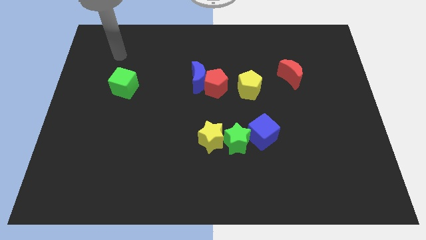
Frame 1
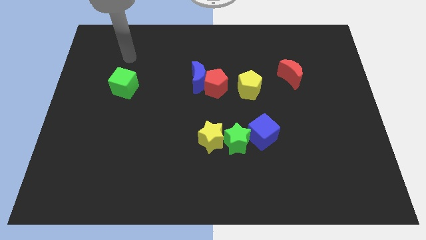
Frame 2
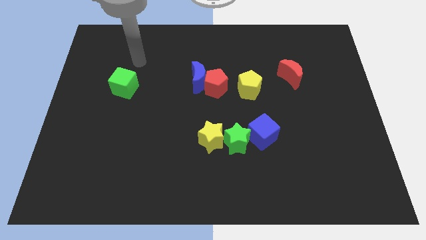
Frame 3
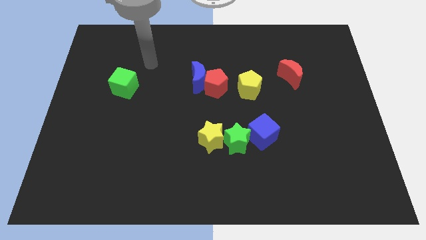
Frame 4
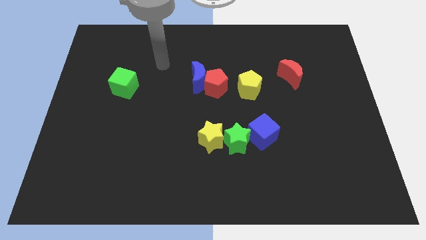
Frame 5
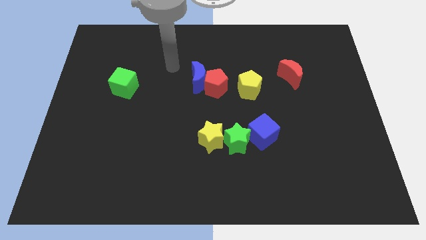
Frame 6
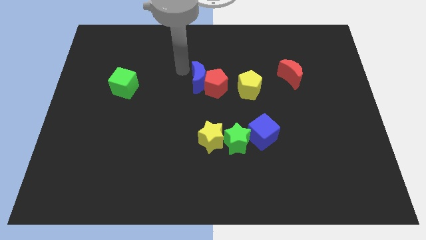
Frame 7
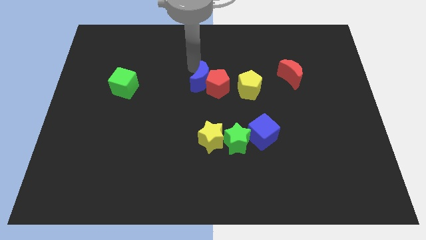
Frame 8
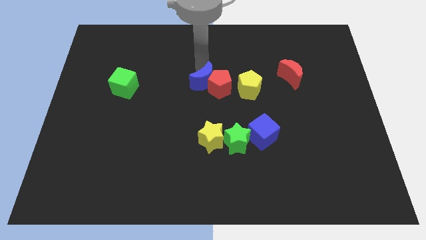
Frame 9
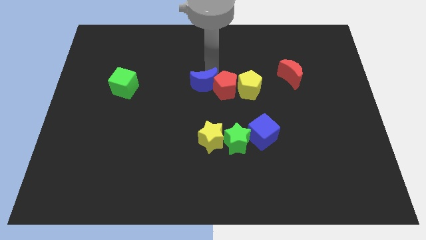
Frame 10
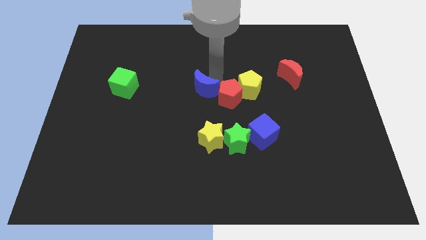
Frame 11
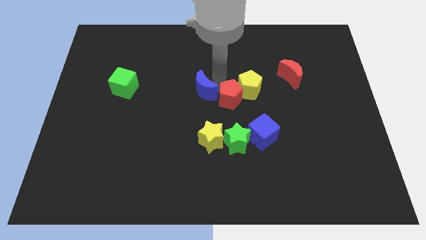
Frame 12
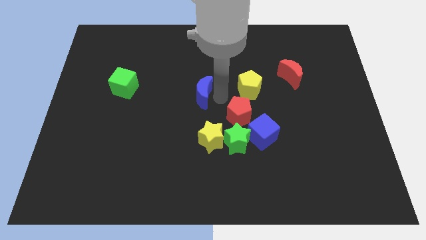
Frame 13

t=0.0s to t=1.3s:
pull the blue moon apart from the red pentagon

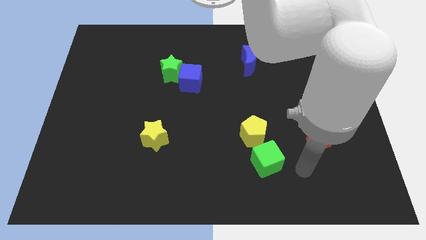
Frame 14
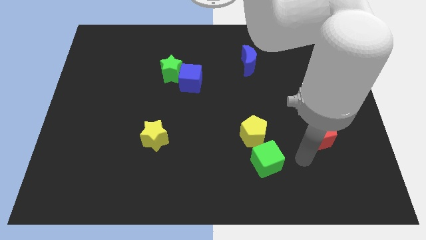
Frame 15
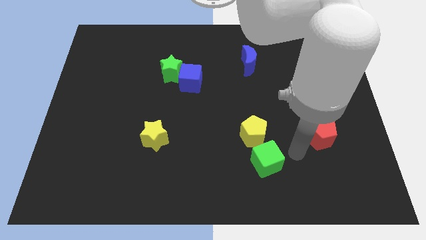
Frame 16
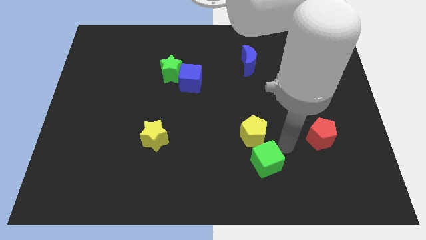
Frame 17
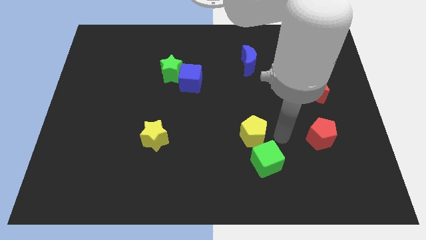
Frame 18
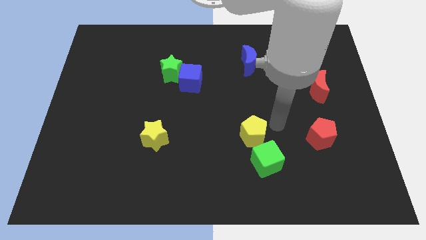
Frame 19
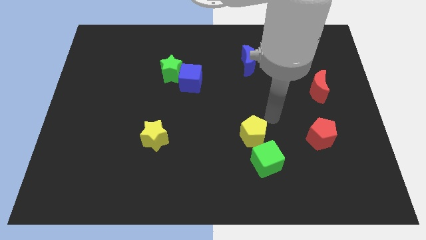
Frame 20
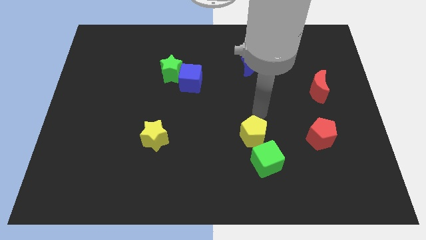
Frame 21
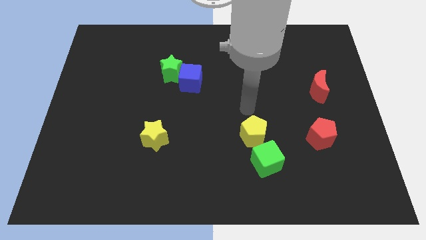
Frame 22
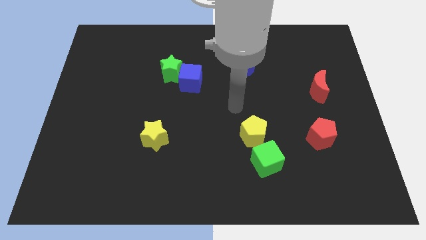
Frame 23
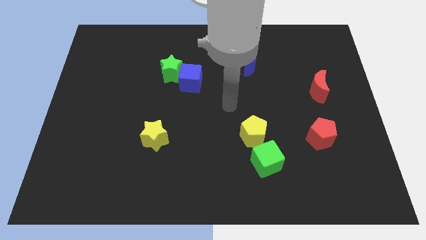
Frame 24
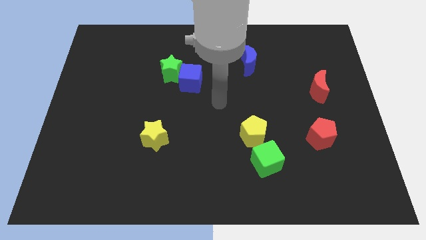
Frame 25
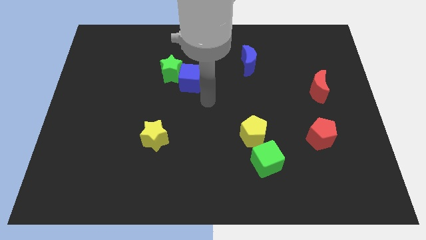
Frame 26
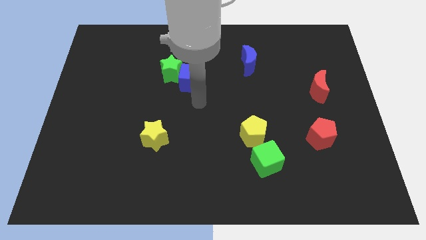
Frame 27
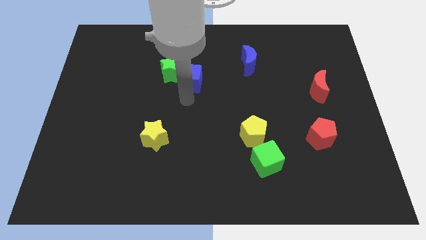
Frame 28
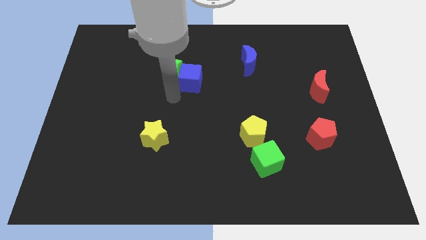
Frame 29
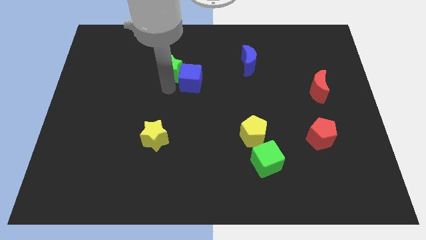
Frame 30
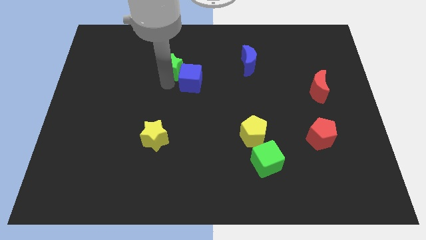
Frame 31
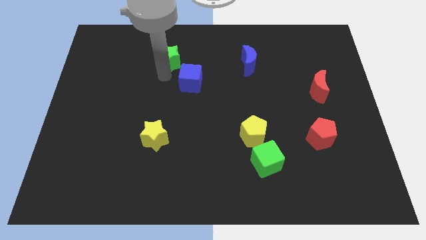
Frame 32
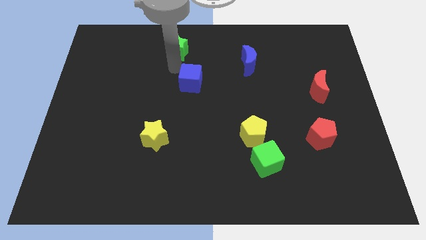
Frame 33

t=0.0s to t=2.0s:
move the blue cube away from the green star

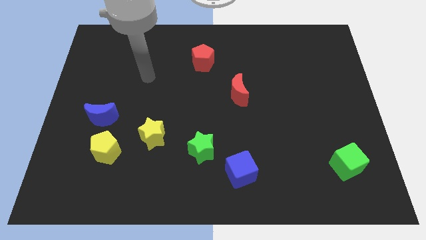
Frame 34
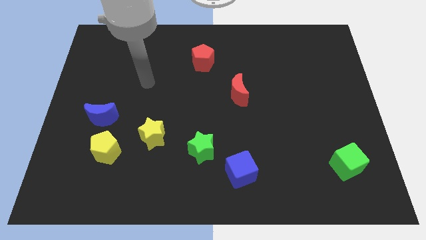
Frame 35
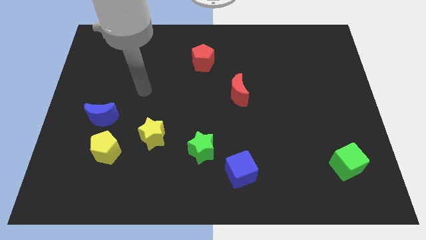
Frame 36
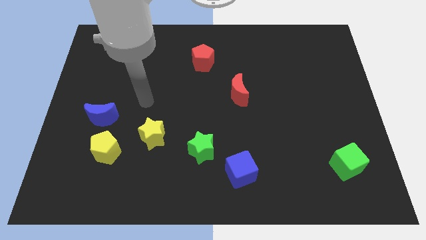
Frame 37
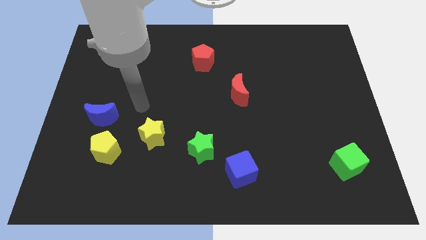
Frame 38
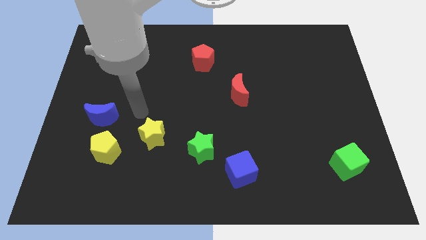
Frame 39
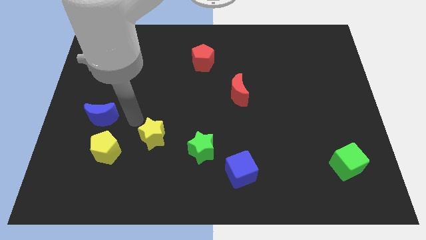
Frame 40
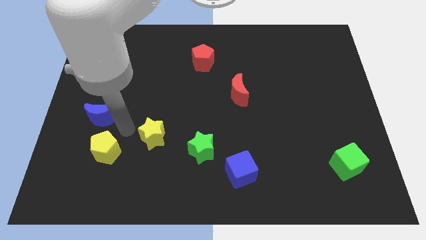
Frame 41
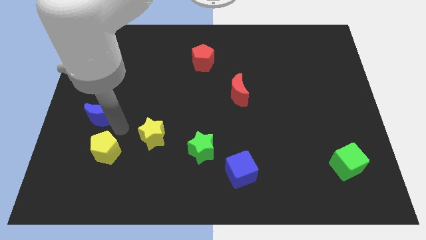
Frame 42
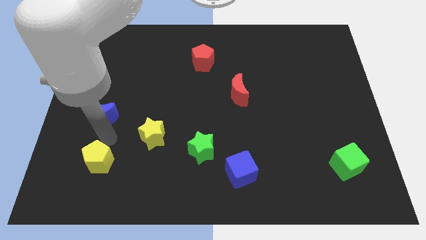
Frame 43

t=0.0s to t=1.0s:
pull the blue moon apart from the yellow pentagon

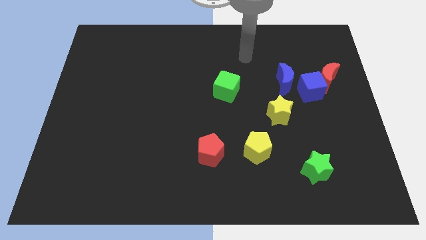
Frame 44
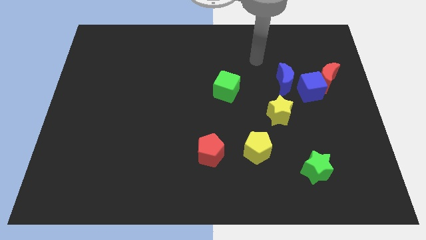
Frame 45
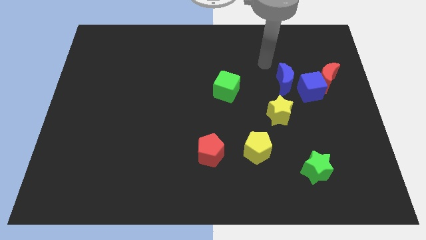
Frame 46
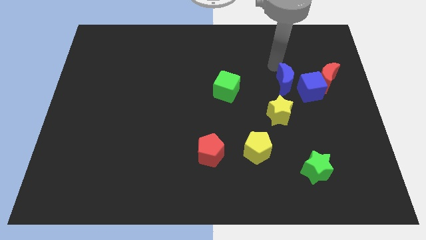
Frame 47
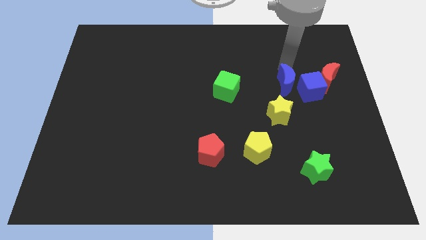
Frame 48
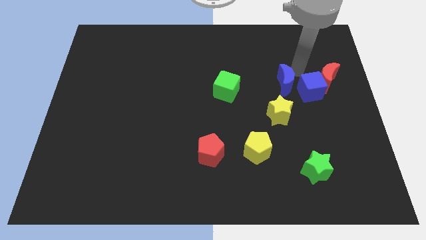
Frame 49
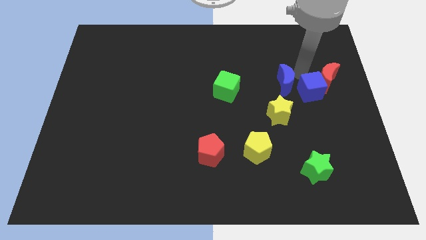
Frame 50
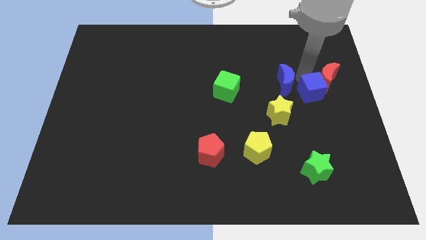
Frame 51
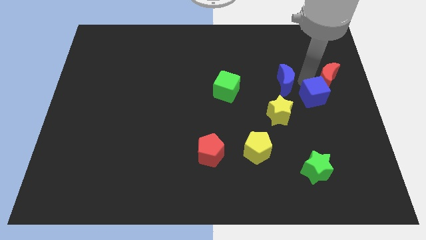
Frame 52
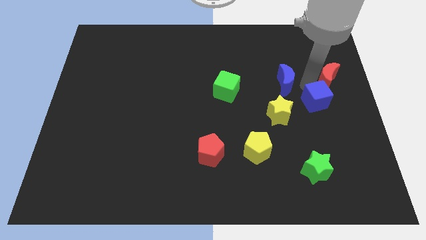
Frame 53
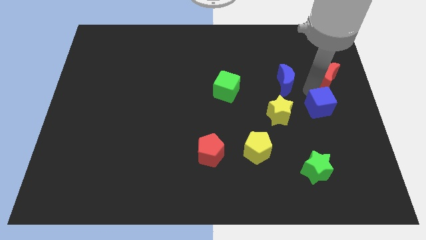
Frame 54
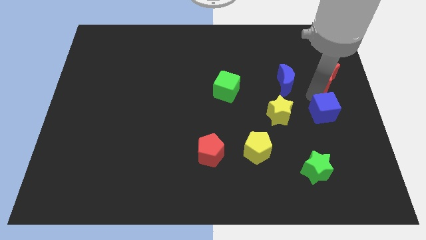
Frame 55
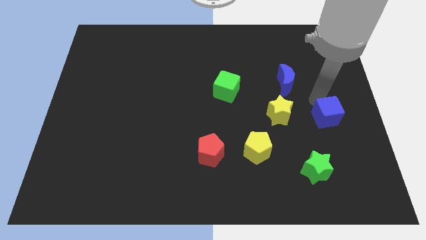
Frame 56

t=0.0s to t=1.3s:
move the blue cube away from the red moon and blue moon

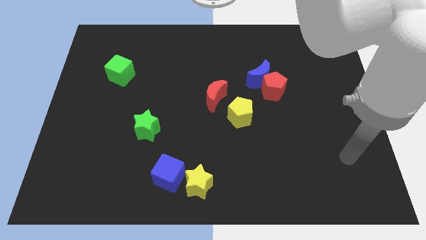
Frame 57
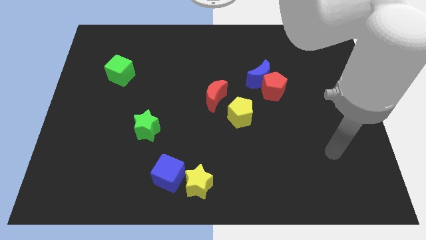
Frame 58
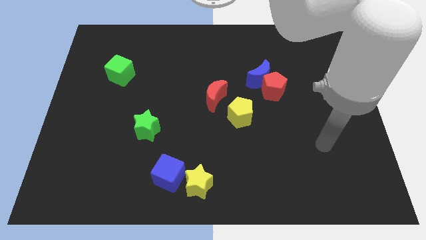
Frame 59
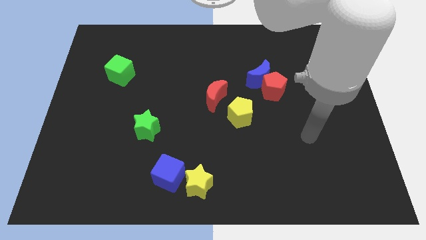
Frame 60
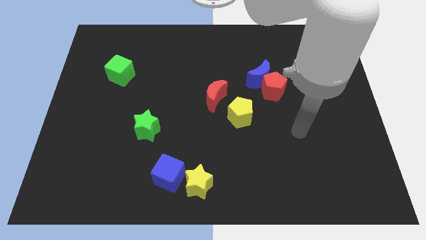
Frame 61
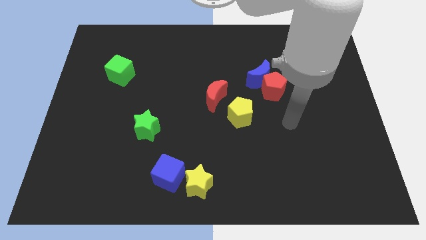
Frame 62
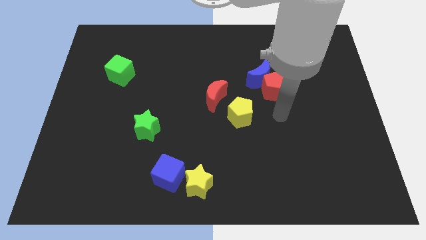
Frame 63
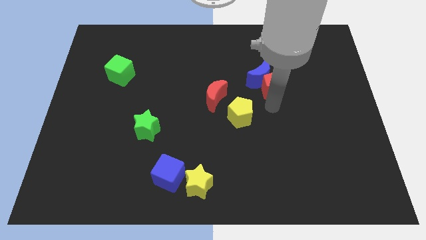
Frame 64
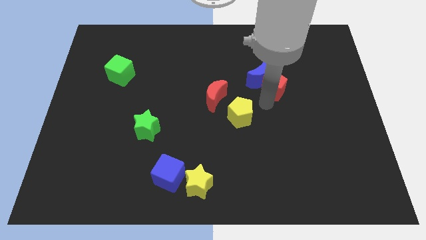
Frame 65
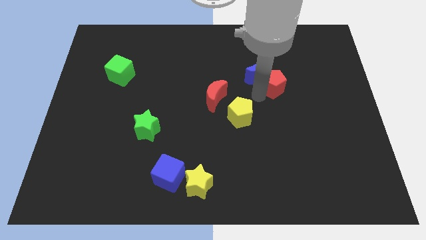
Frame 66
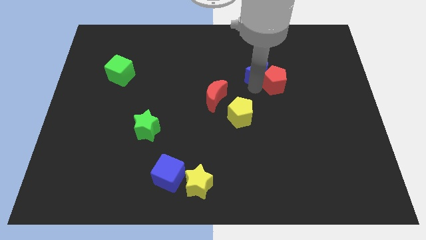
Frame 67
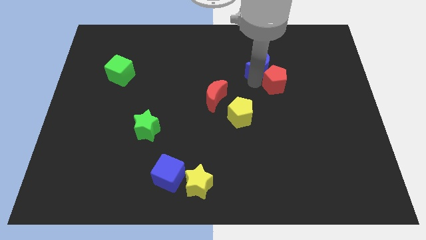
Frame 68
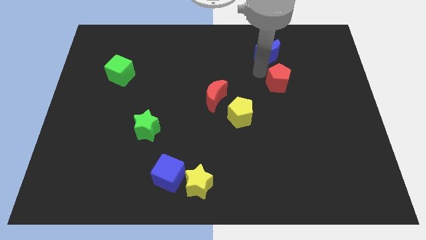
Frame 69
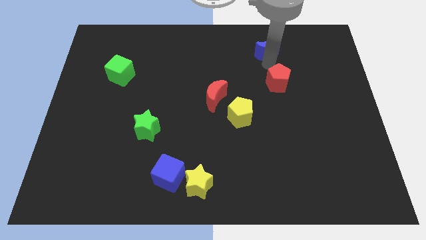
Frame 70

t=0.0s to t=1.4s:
pull the red pentagon apart from the blue moon

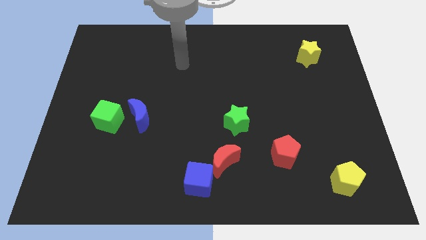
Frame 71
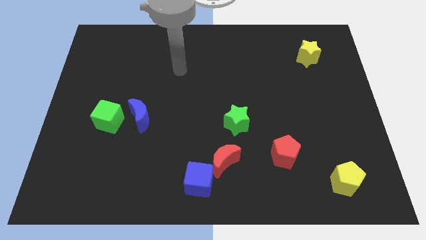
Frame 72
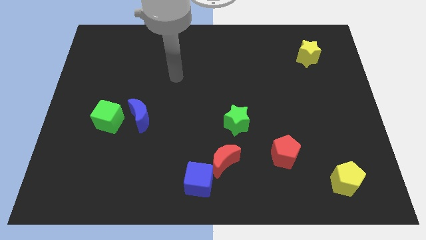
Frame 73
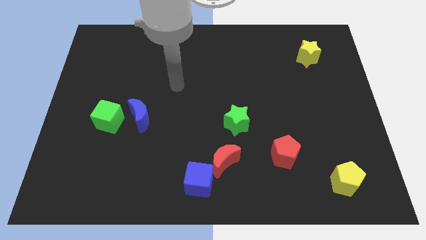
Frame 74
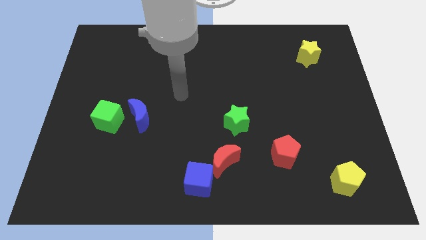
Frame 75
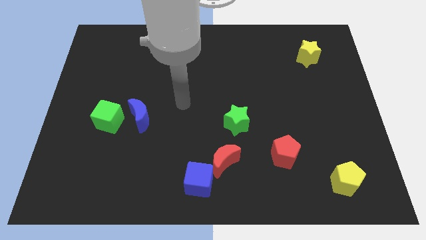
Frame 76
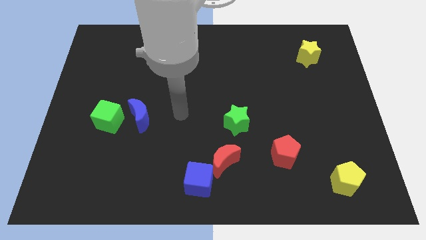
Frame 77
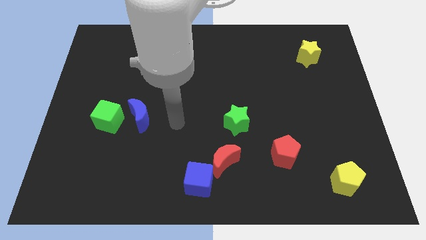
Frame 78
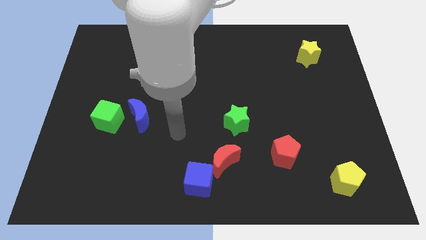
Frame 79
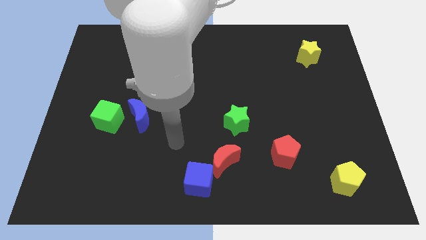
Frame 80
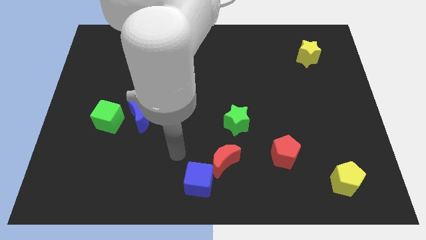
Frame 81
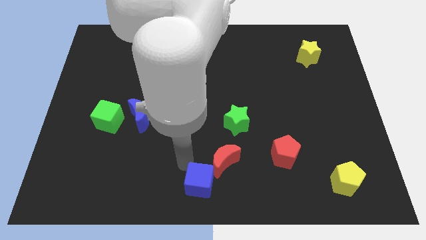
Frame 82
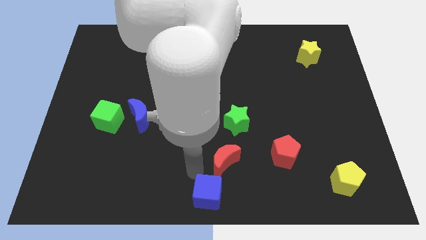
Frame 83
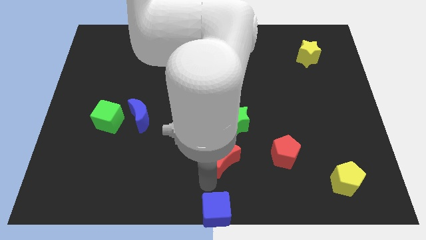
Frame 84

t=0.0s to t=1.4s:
separate the red moon from the blue cube

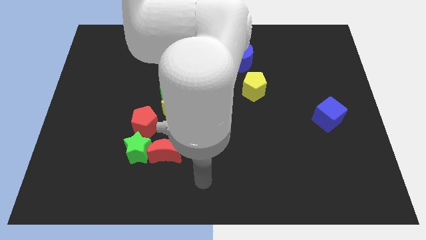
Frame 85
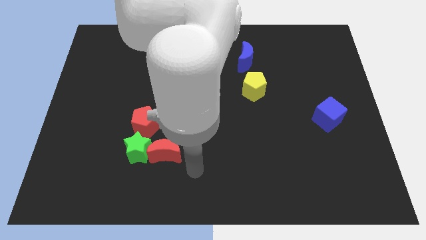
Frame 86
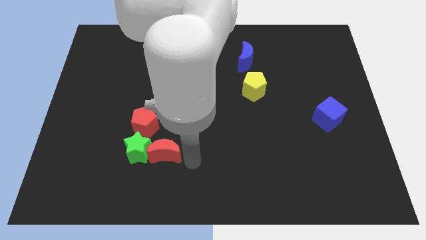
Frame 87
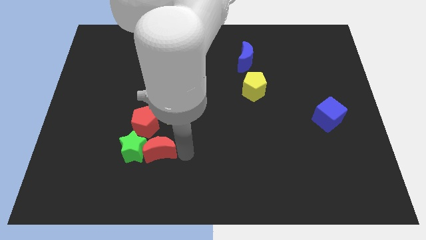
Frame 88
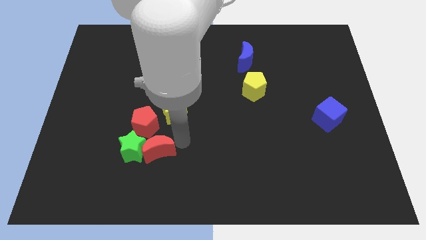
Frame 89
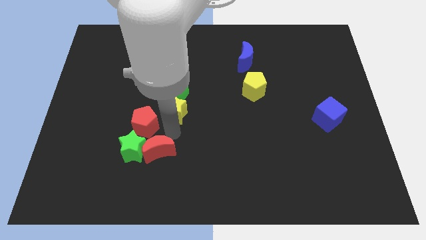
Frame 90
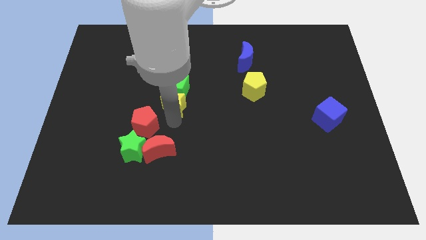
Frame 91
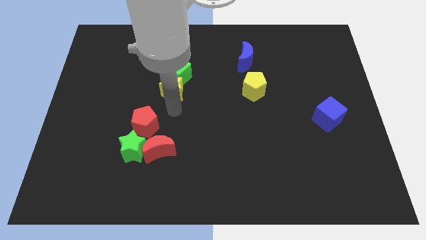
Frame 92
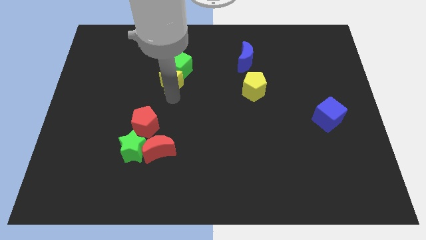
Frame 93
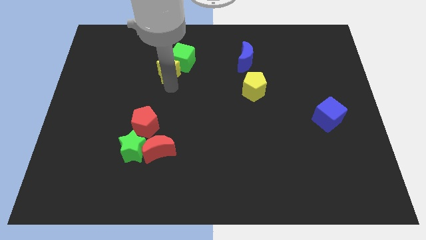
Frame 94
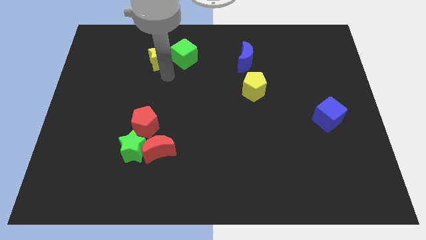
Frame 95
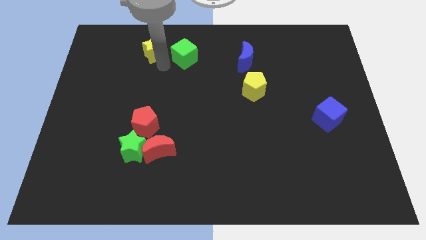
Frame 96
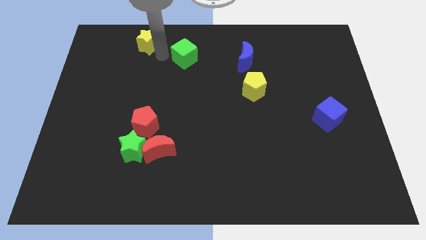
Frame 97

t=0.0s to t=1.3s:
pull the green cube apart from the yellow star
